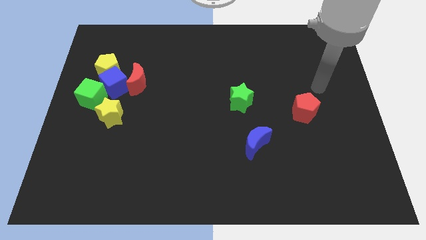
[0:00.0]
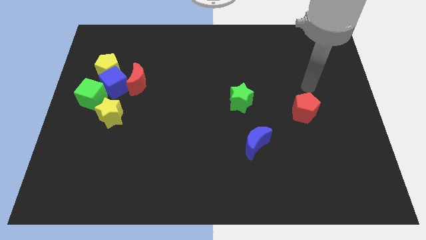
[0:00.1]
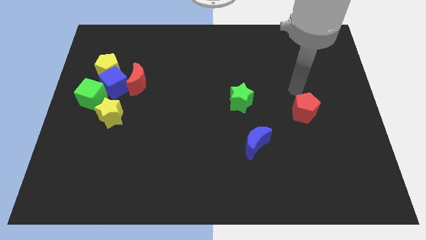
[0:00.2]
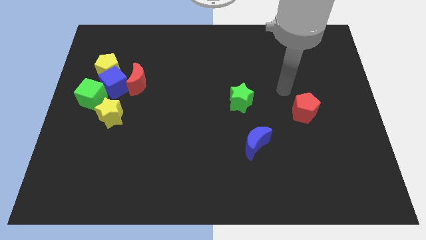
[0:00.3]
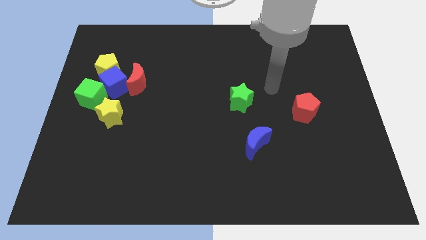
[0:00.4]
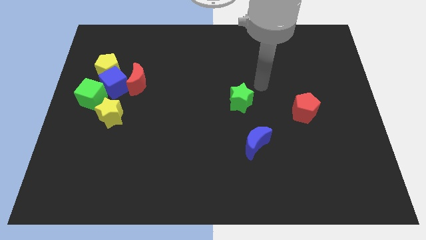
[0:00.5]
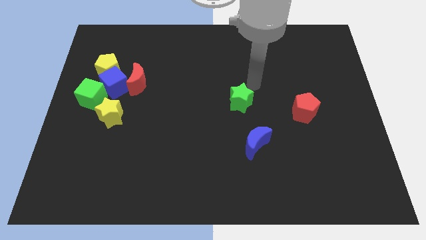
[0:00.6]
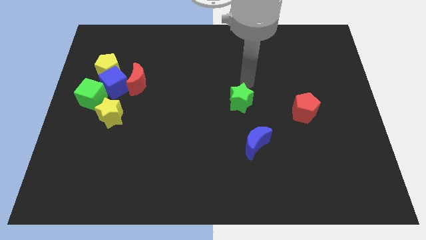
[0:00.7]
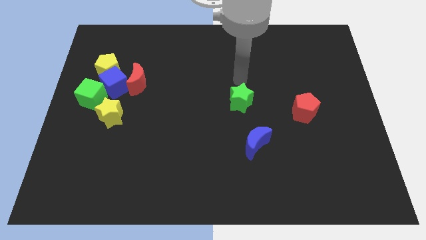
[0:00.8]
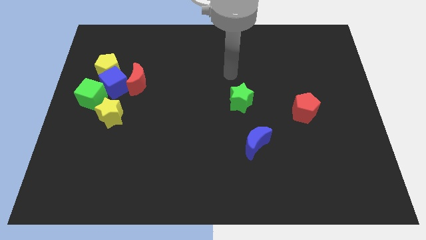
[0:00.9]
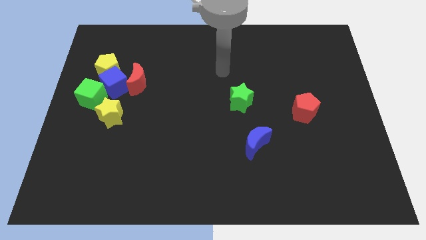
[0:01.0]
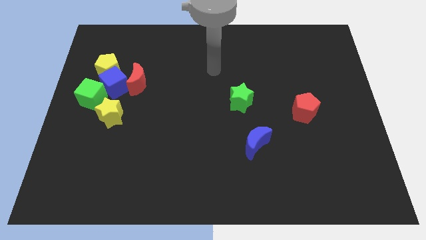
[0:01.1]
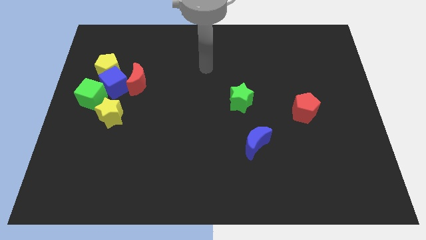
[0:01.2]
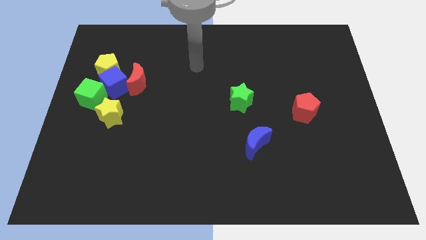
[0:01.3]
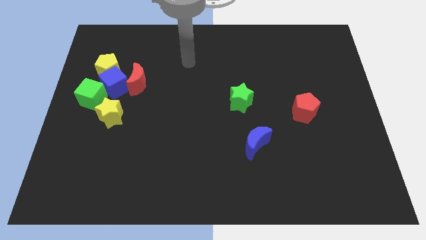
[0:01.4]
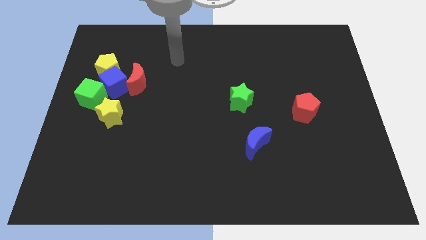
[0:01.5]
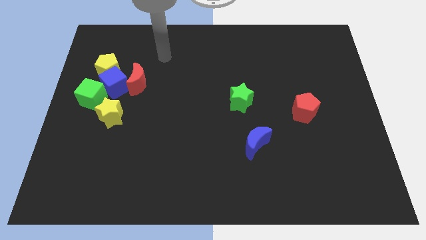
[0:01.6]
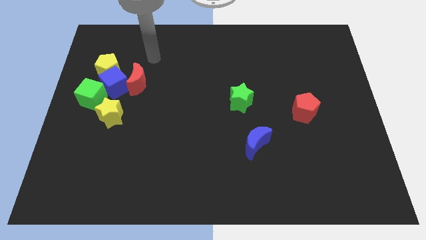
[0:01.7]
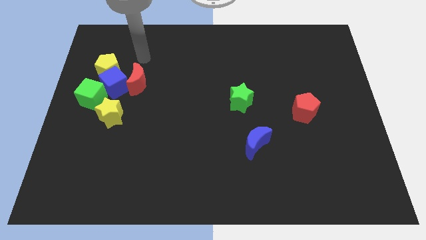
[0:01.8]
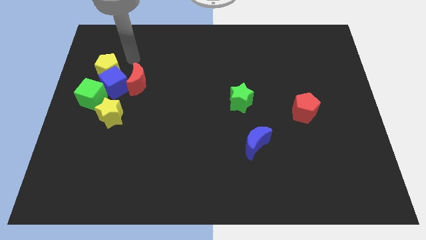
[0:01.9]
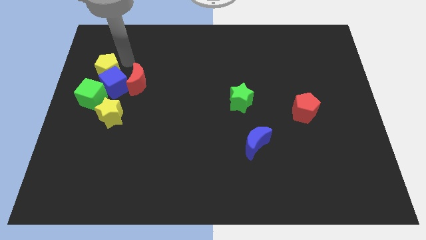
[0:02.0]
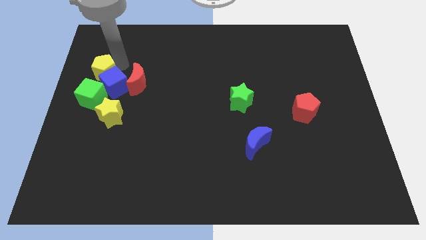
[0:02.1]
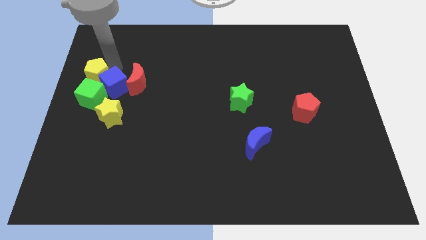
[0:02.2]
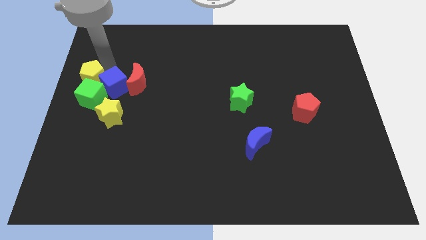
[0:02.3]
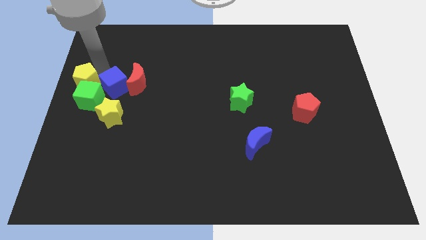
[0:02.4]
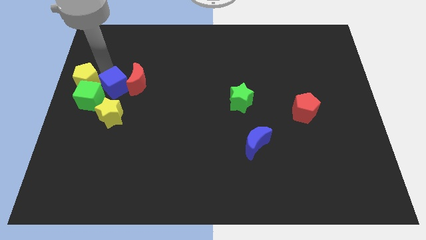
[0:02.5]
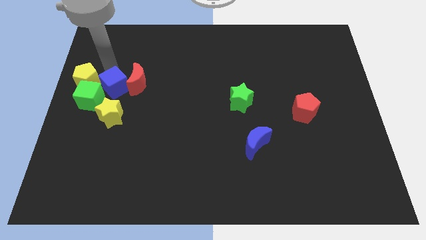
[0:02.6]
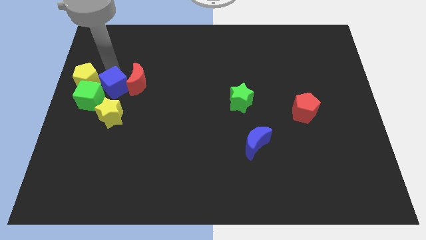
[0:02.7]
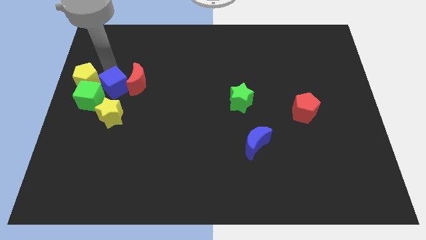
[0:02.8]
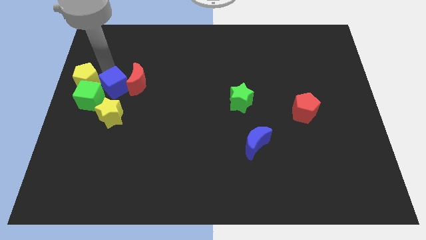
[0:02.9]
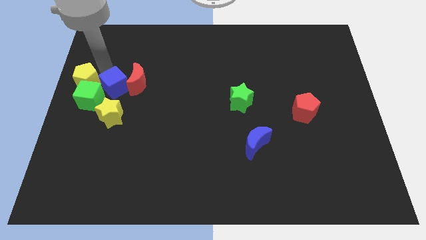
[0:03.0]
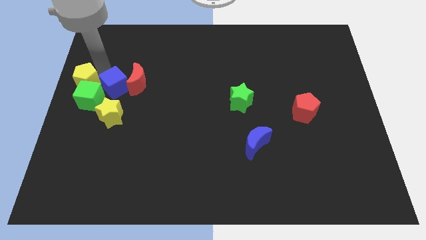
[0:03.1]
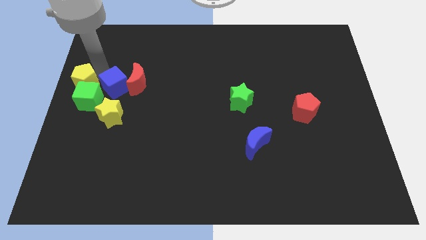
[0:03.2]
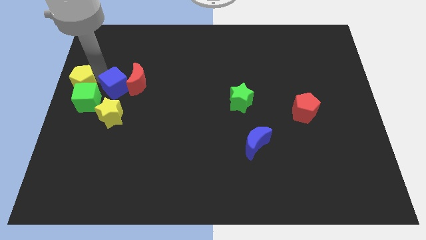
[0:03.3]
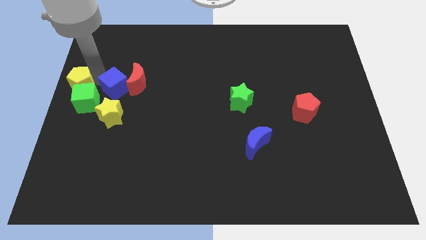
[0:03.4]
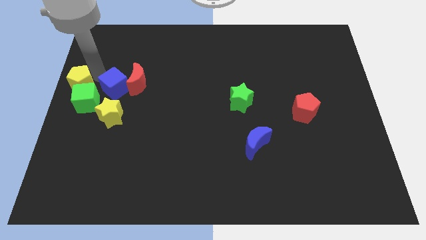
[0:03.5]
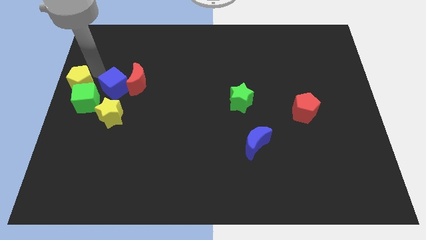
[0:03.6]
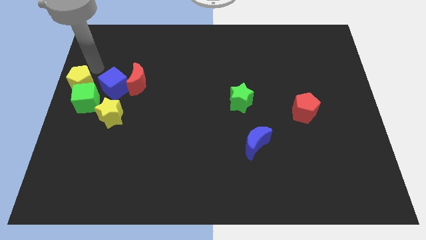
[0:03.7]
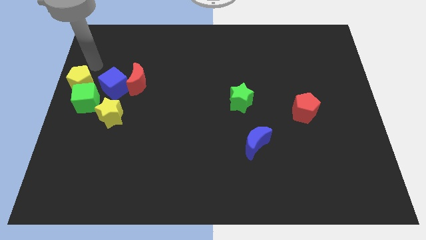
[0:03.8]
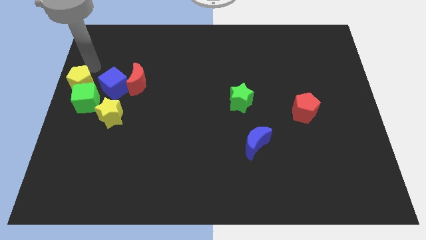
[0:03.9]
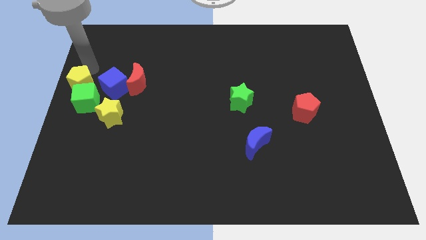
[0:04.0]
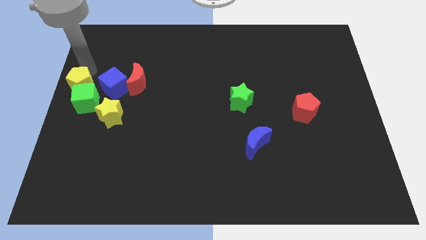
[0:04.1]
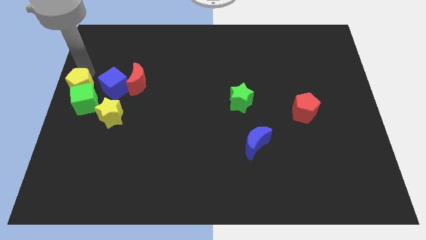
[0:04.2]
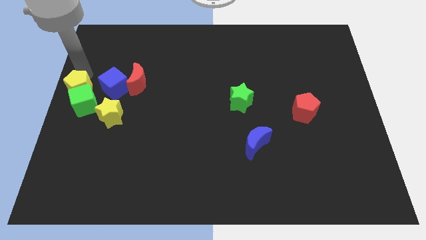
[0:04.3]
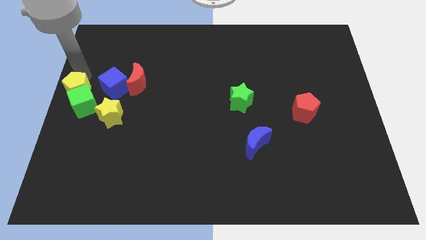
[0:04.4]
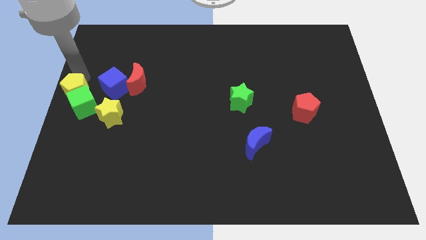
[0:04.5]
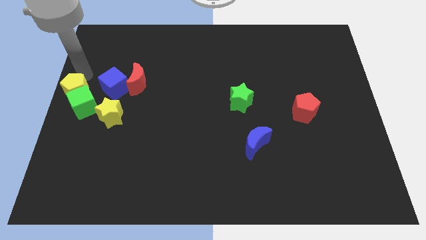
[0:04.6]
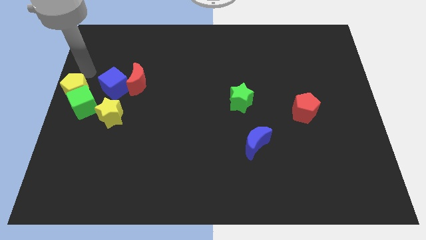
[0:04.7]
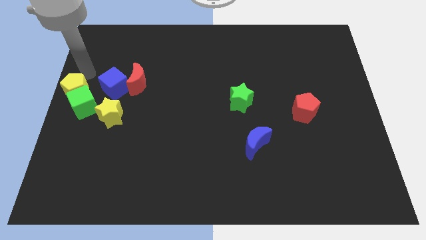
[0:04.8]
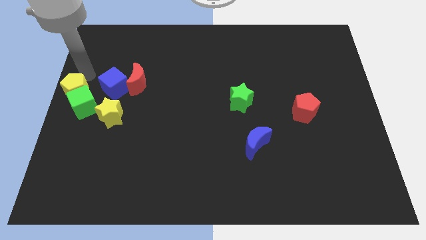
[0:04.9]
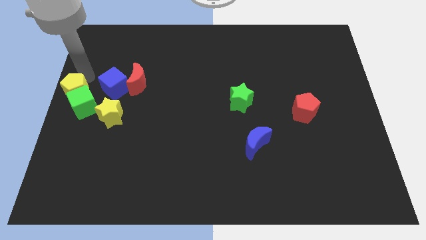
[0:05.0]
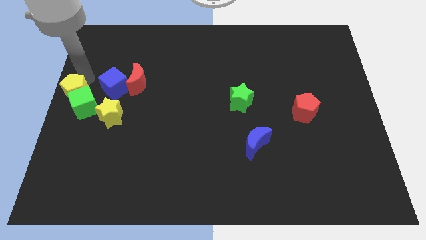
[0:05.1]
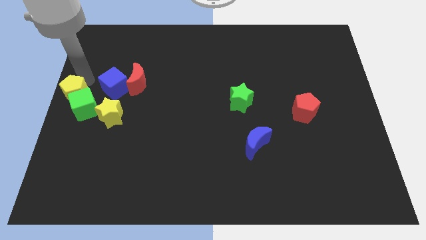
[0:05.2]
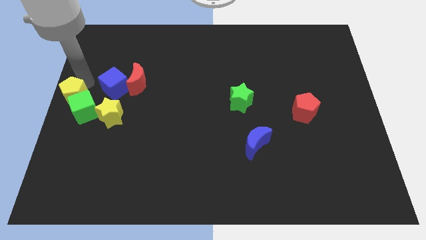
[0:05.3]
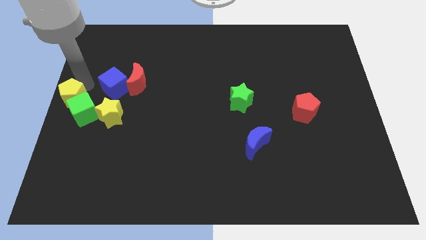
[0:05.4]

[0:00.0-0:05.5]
slide the yellow pentagon a little bit downwards

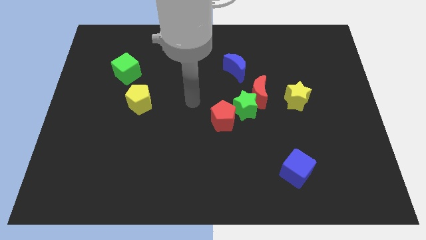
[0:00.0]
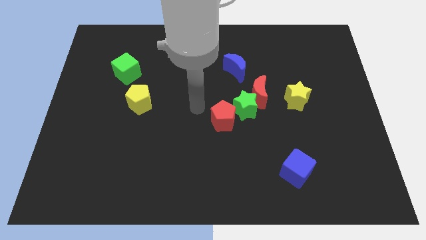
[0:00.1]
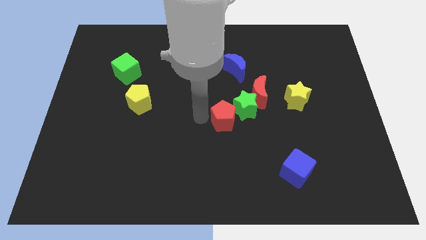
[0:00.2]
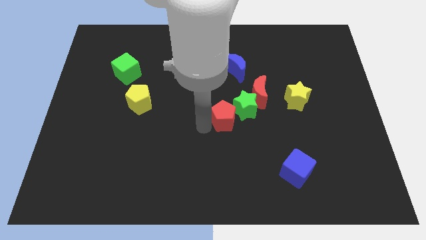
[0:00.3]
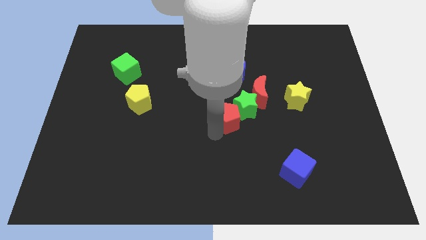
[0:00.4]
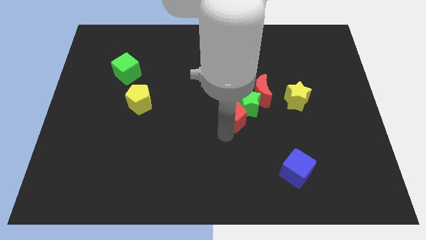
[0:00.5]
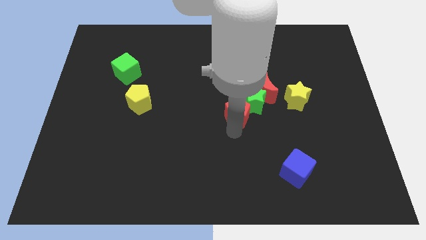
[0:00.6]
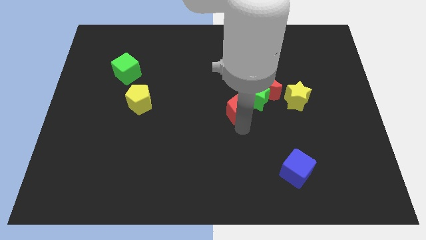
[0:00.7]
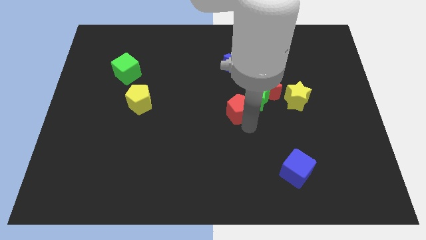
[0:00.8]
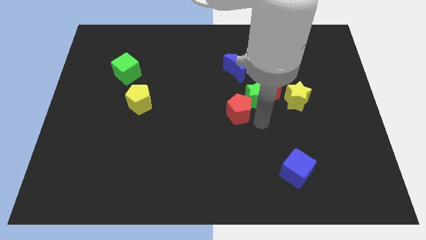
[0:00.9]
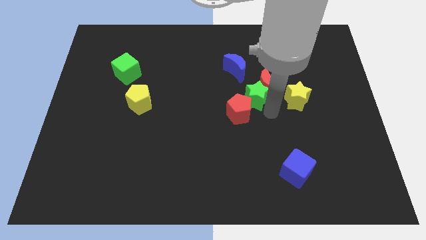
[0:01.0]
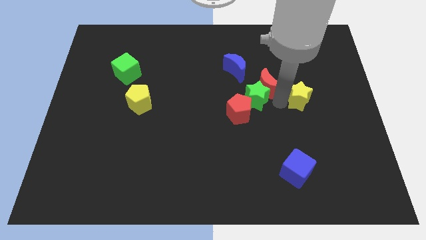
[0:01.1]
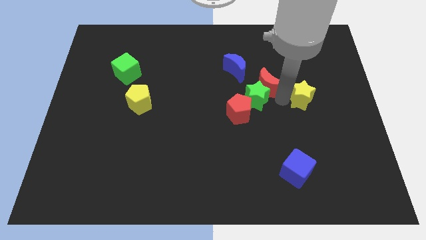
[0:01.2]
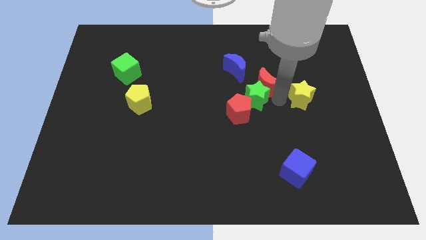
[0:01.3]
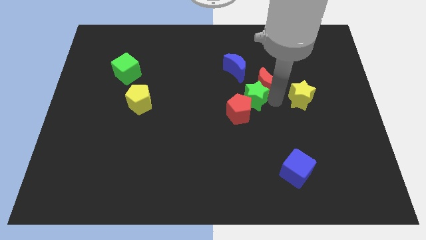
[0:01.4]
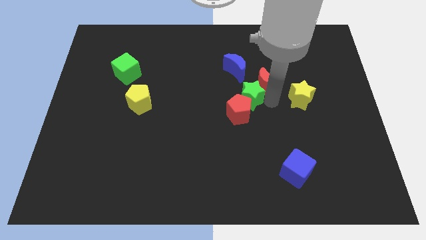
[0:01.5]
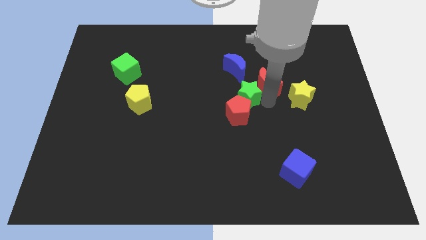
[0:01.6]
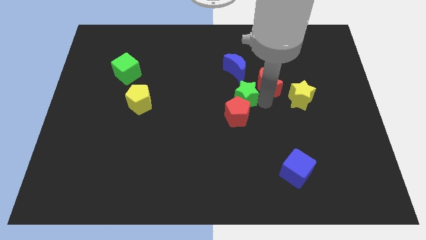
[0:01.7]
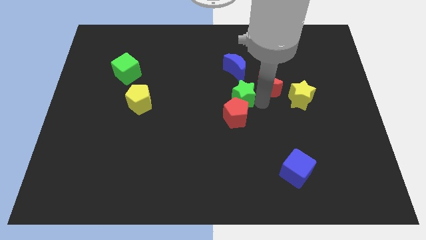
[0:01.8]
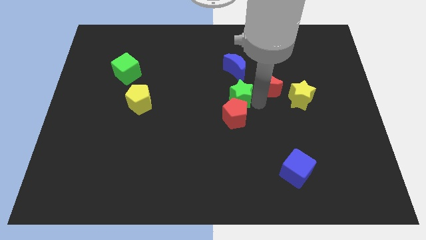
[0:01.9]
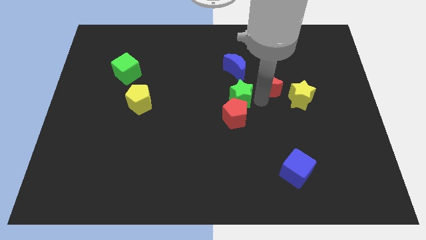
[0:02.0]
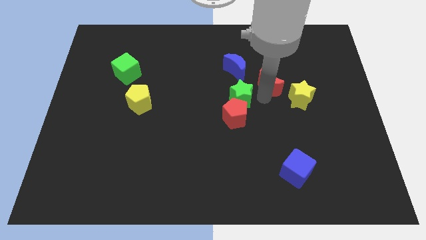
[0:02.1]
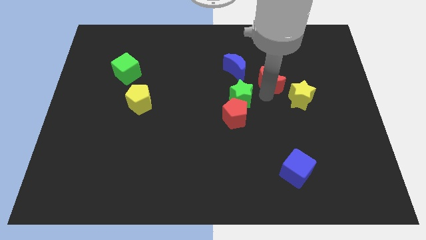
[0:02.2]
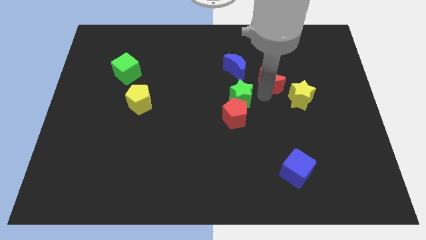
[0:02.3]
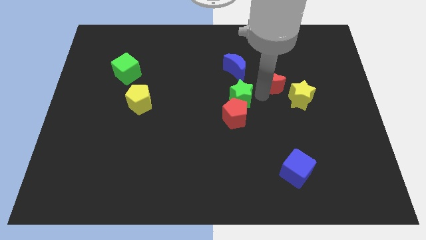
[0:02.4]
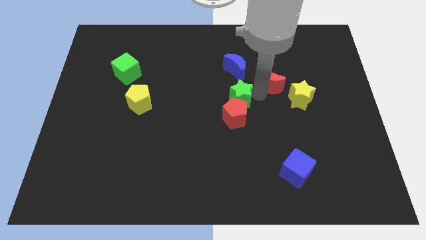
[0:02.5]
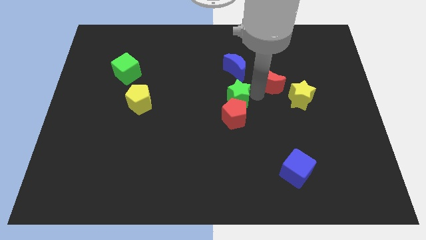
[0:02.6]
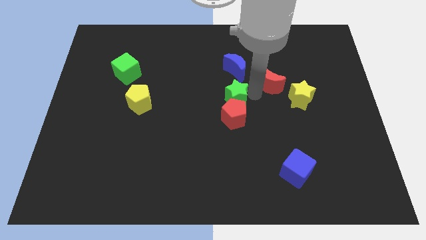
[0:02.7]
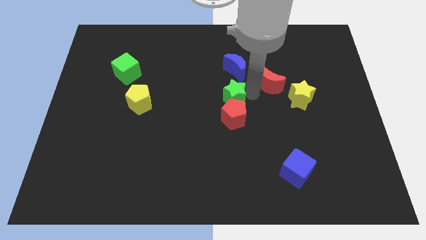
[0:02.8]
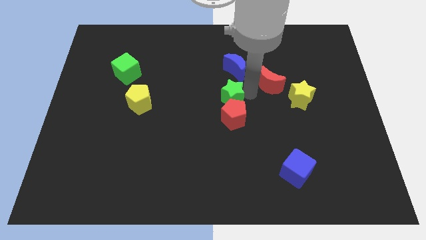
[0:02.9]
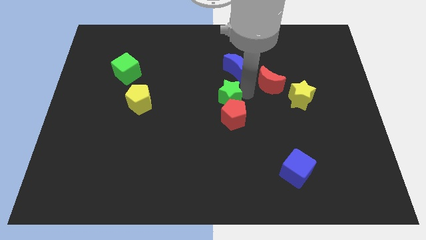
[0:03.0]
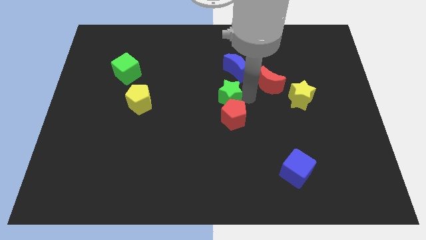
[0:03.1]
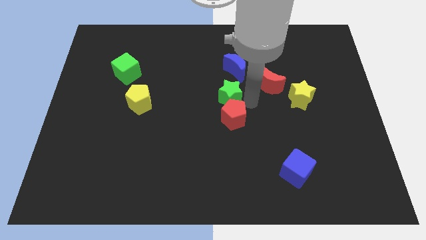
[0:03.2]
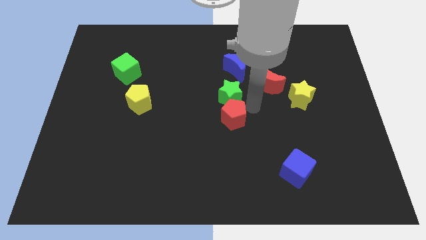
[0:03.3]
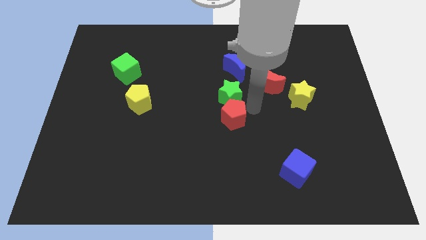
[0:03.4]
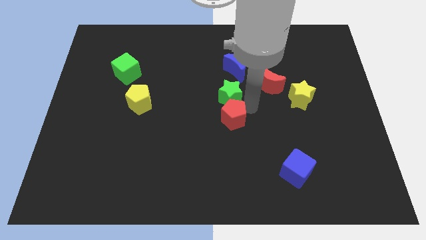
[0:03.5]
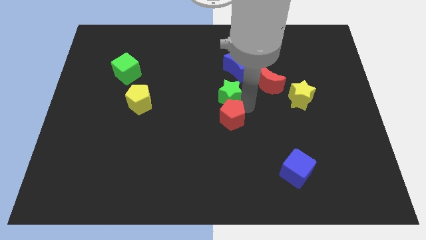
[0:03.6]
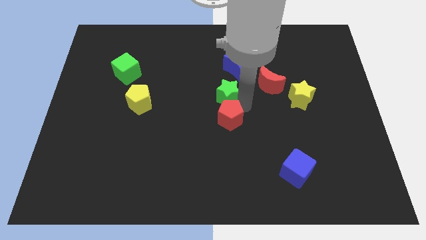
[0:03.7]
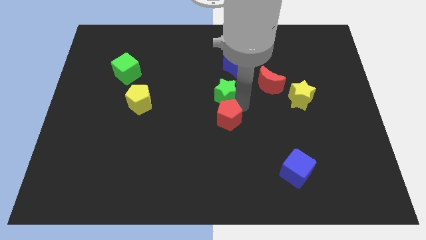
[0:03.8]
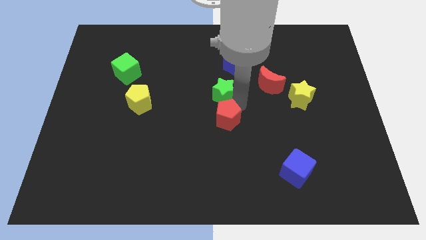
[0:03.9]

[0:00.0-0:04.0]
move the green star upwards and then to the left a little
